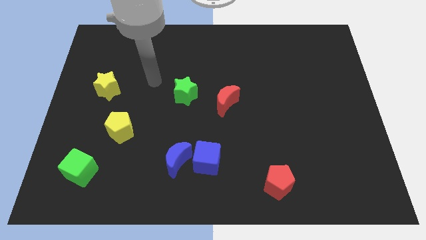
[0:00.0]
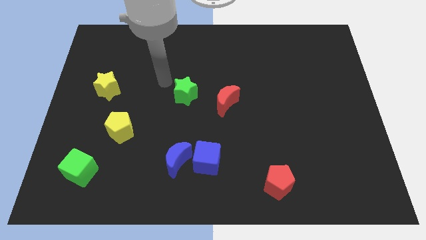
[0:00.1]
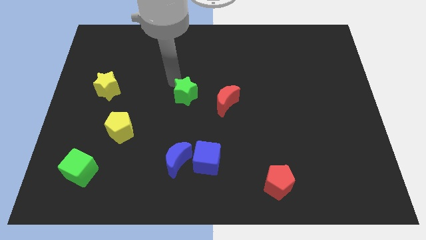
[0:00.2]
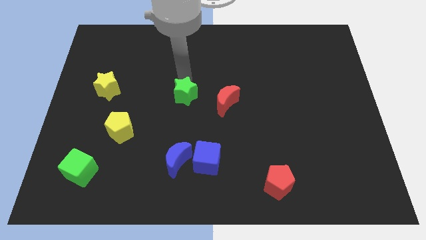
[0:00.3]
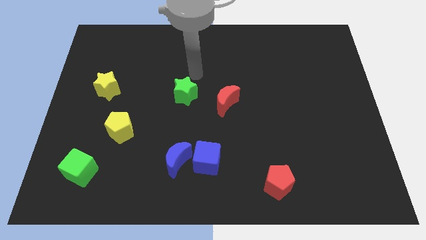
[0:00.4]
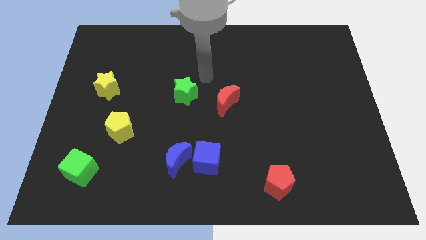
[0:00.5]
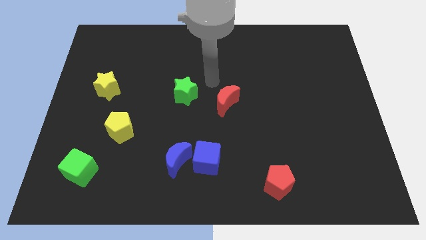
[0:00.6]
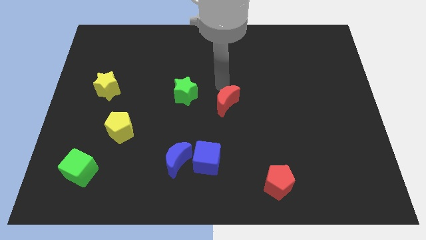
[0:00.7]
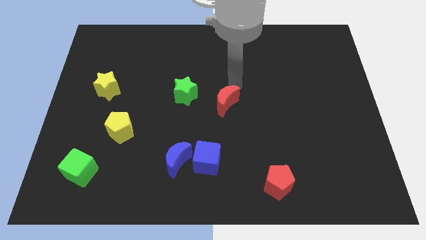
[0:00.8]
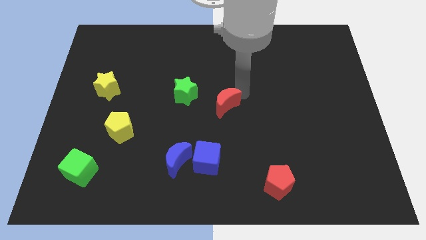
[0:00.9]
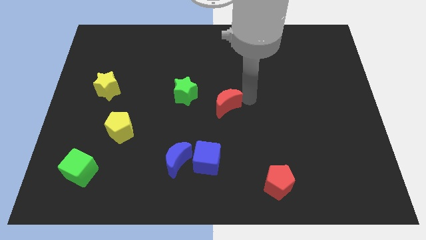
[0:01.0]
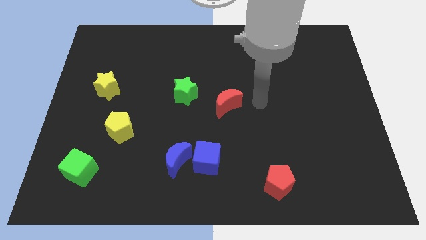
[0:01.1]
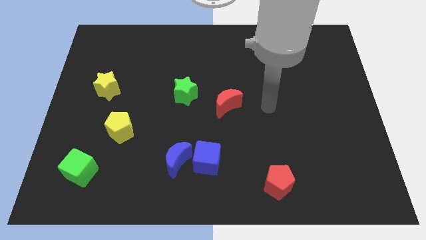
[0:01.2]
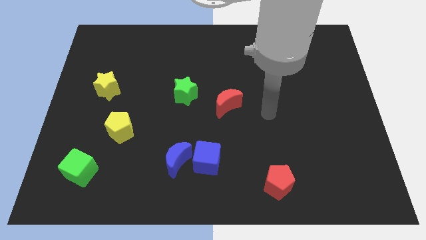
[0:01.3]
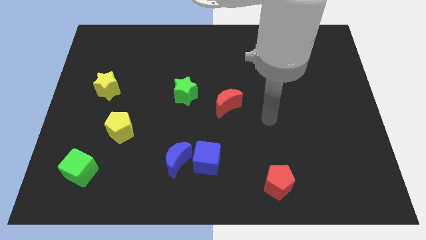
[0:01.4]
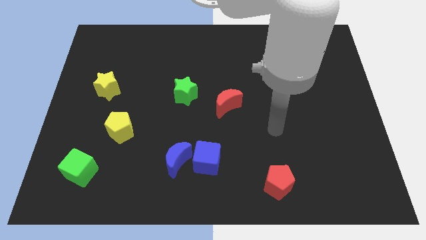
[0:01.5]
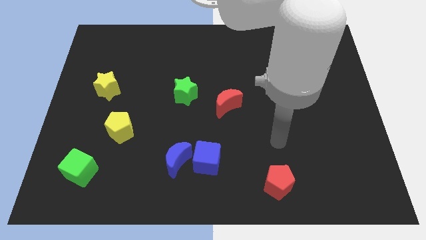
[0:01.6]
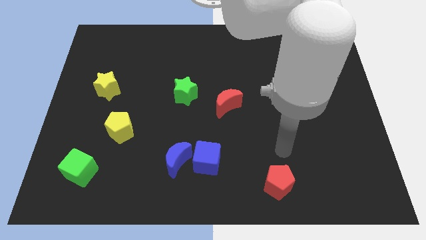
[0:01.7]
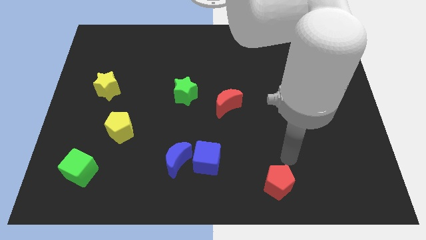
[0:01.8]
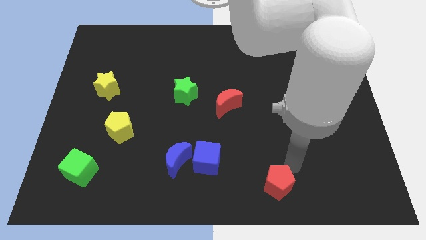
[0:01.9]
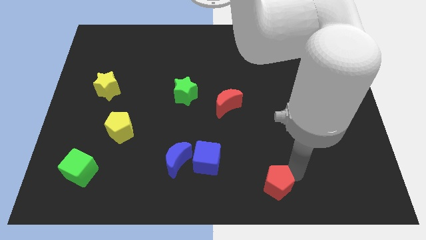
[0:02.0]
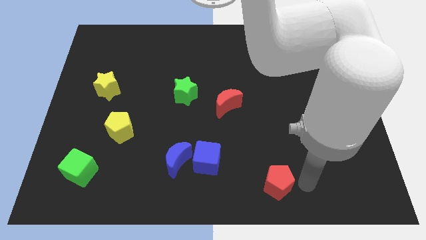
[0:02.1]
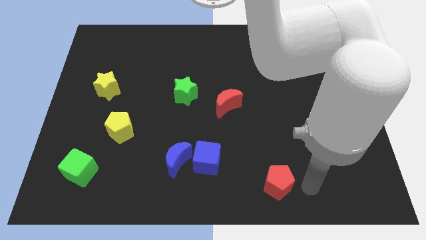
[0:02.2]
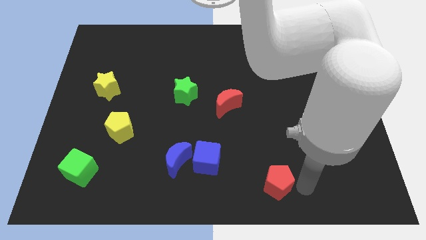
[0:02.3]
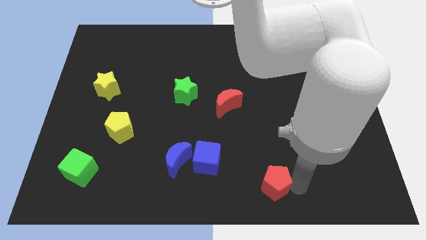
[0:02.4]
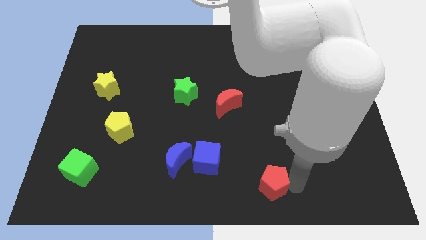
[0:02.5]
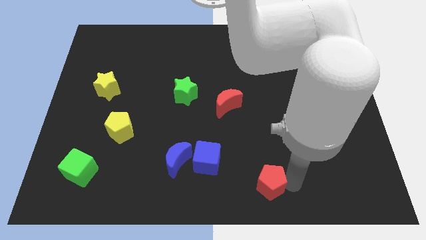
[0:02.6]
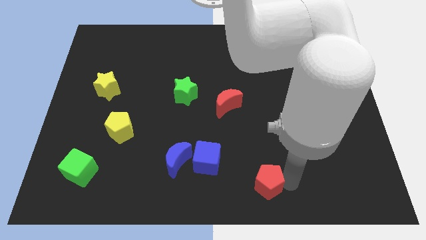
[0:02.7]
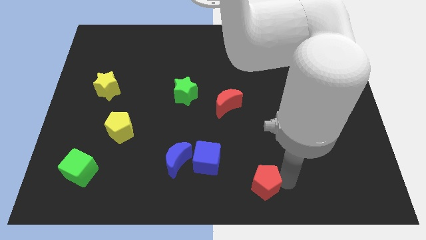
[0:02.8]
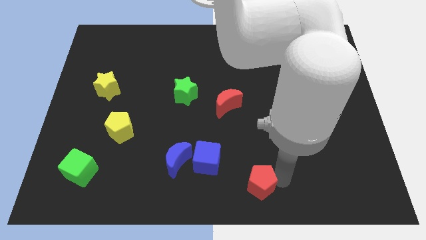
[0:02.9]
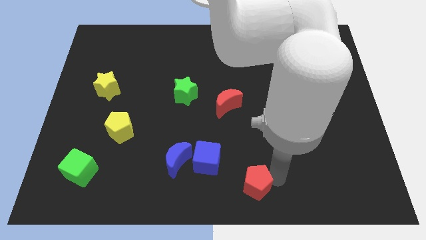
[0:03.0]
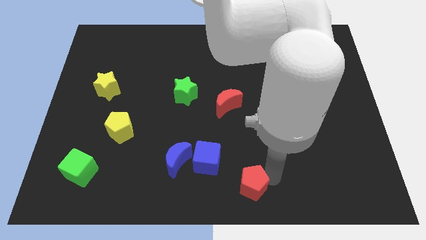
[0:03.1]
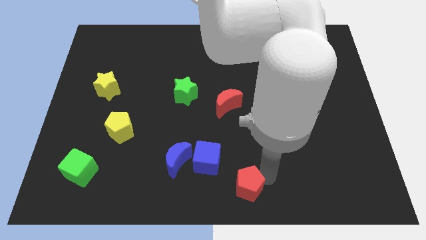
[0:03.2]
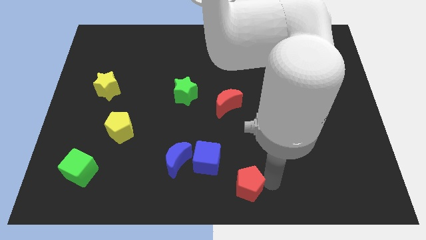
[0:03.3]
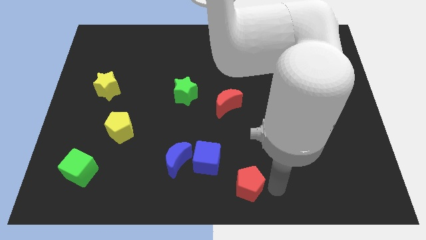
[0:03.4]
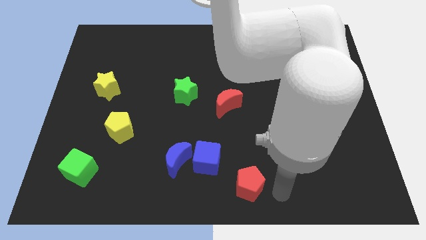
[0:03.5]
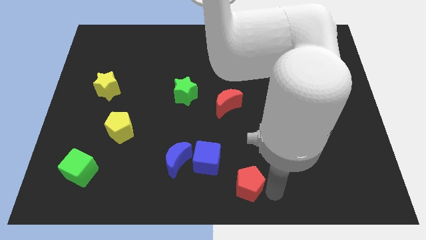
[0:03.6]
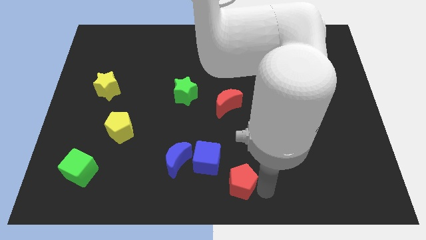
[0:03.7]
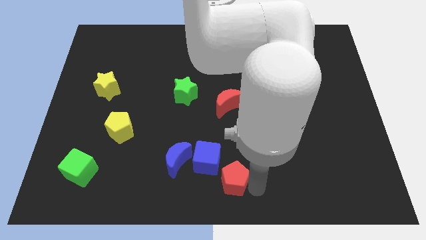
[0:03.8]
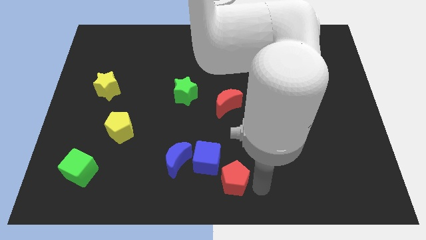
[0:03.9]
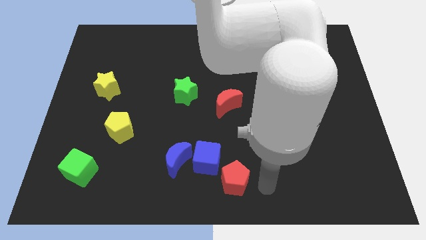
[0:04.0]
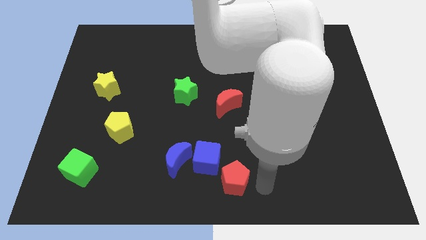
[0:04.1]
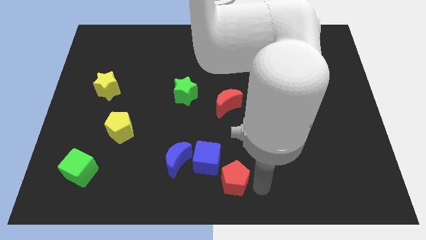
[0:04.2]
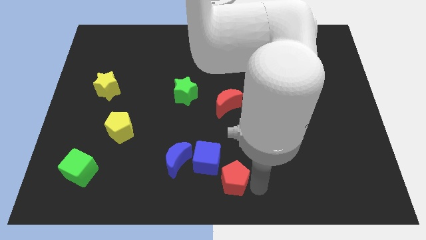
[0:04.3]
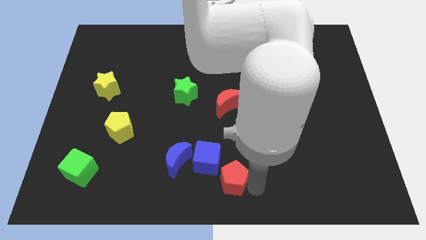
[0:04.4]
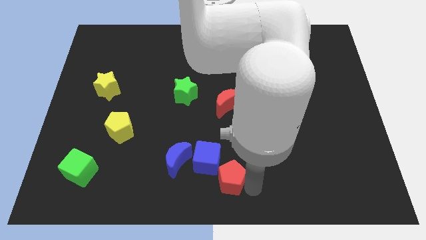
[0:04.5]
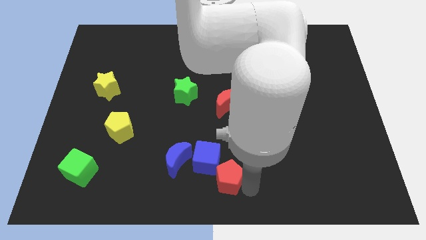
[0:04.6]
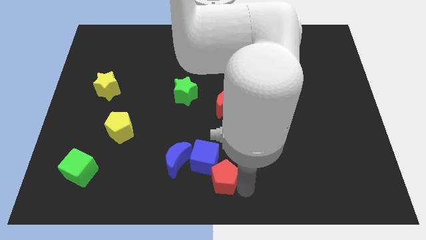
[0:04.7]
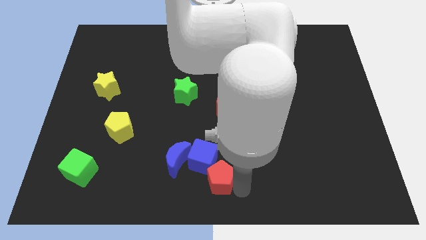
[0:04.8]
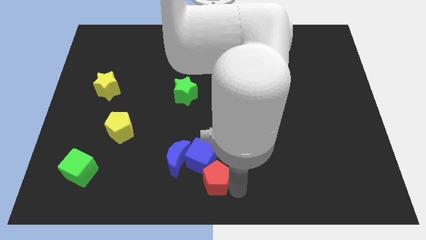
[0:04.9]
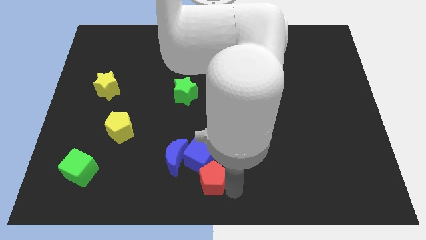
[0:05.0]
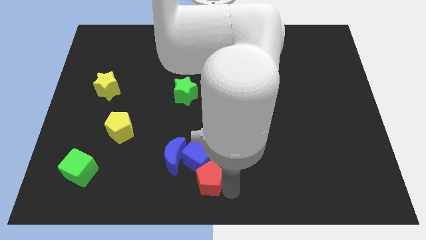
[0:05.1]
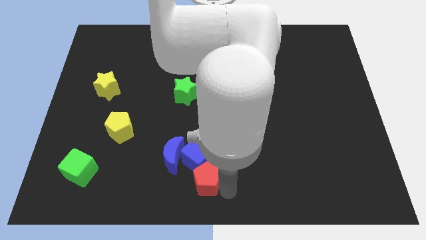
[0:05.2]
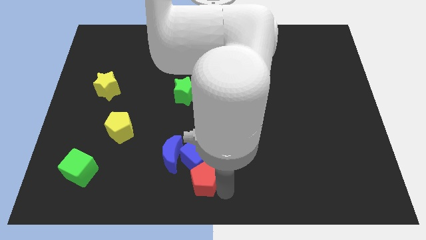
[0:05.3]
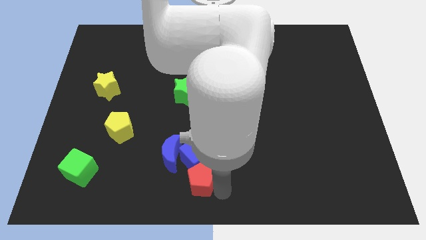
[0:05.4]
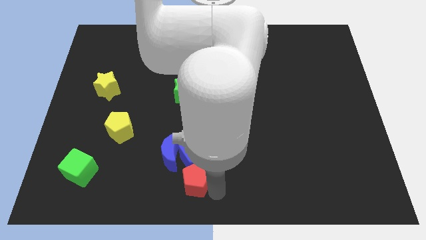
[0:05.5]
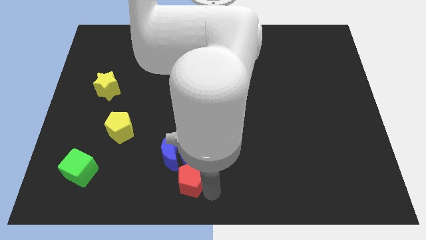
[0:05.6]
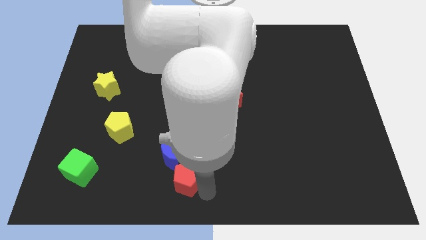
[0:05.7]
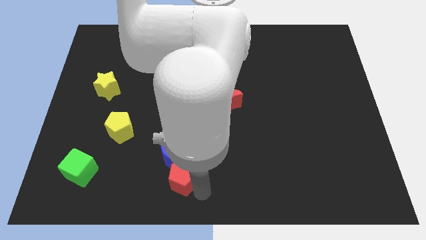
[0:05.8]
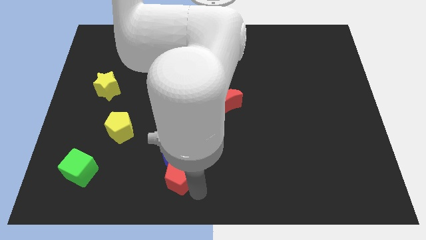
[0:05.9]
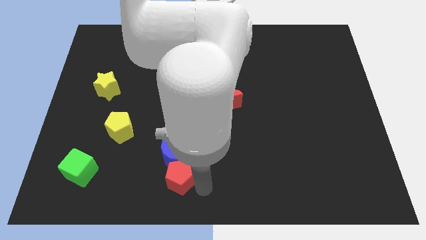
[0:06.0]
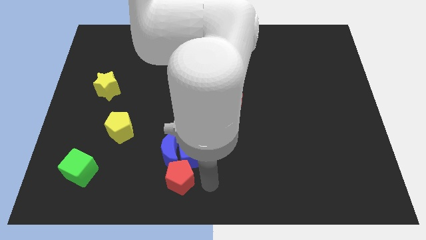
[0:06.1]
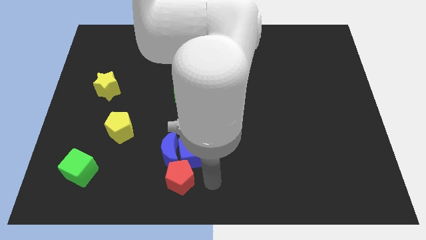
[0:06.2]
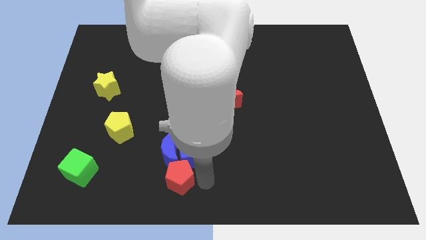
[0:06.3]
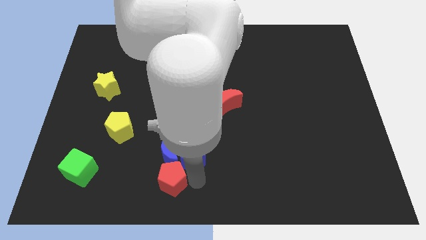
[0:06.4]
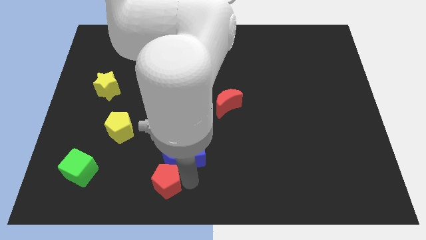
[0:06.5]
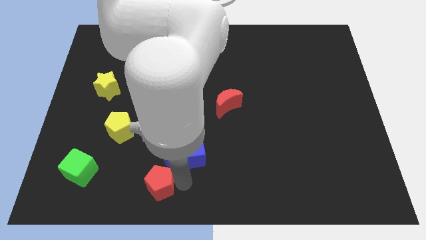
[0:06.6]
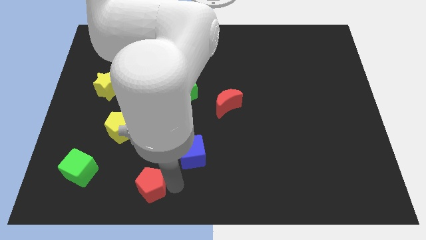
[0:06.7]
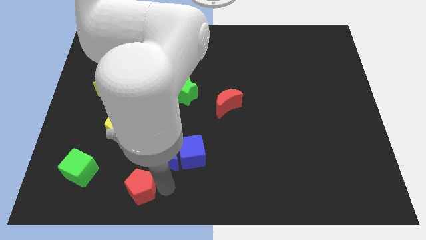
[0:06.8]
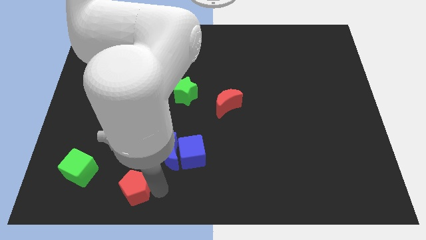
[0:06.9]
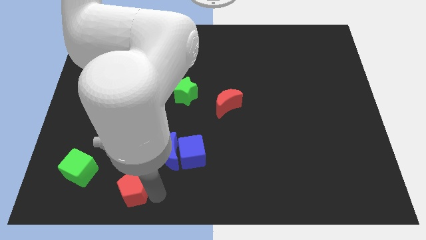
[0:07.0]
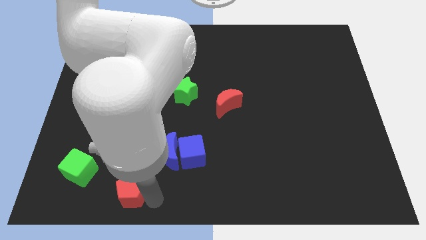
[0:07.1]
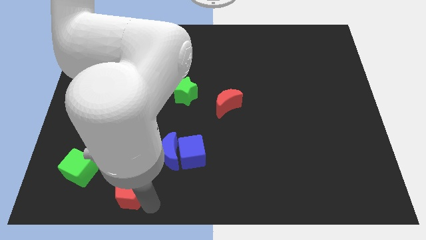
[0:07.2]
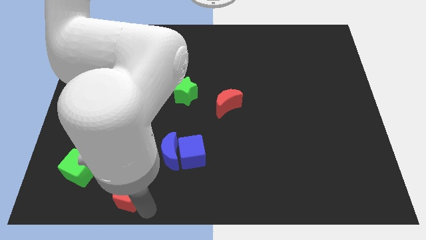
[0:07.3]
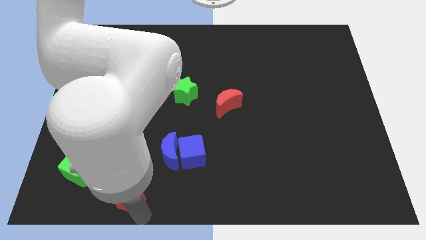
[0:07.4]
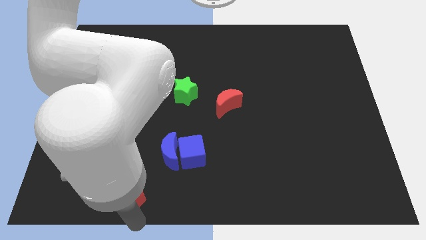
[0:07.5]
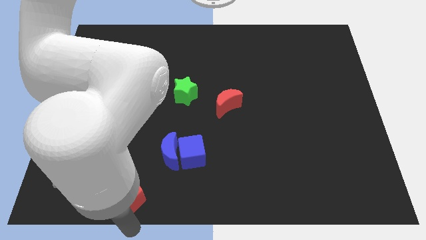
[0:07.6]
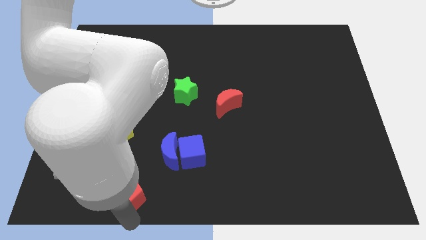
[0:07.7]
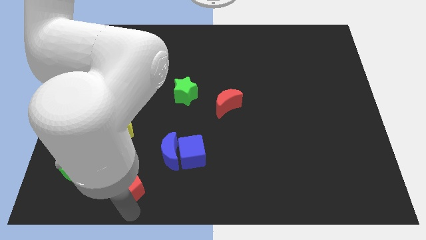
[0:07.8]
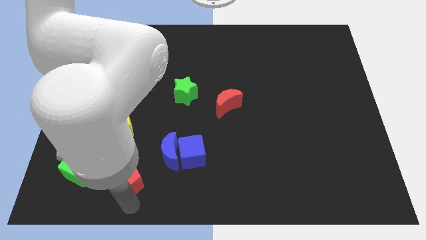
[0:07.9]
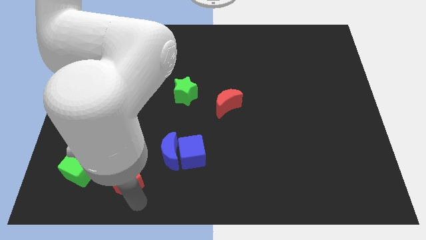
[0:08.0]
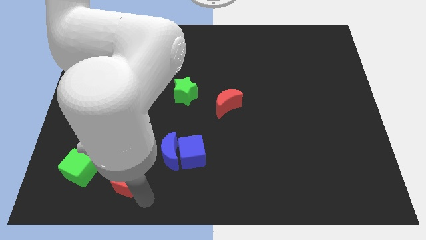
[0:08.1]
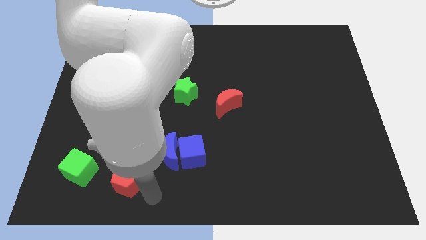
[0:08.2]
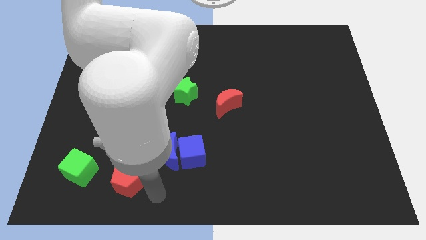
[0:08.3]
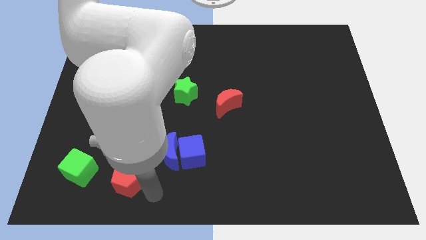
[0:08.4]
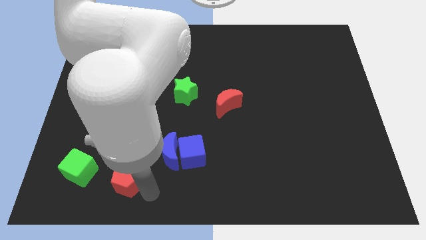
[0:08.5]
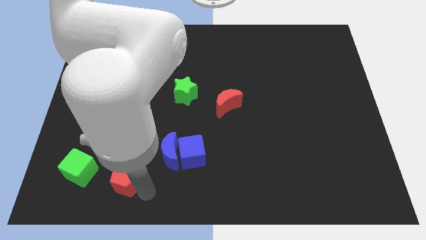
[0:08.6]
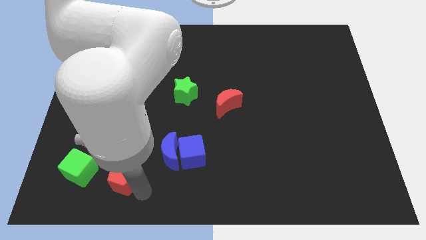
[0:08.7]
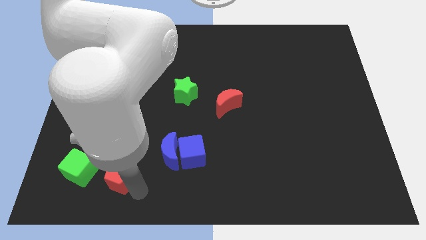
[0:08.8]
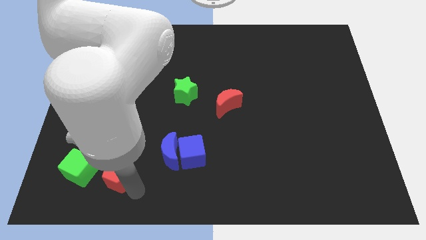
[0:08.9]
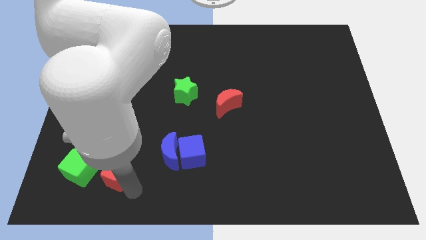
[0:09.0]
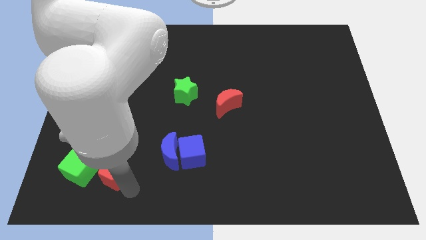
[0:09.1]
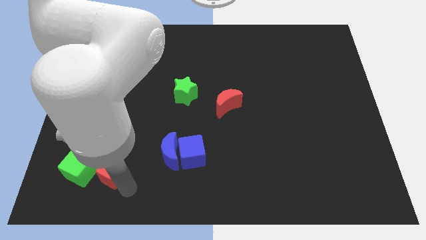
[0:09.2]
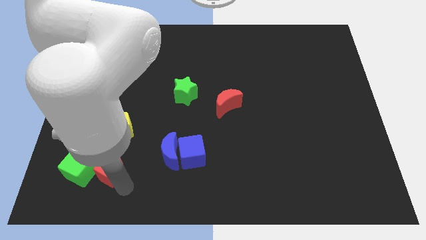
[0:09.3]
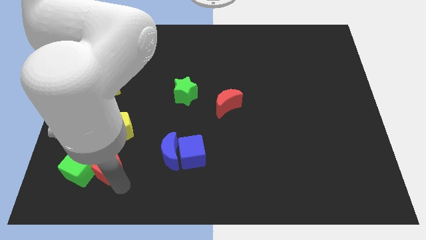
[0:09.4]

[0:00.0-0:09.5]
push the red pentagon to the green cube
